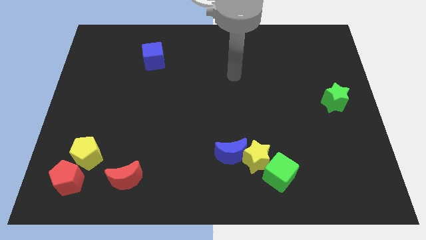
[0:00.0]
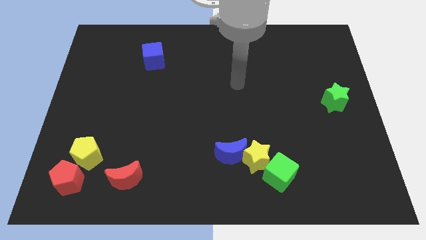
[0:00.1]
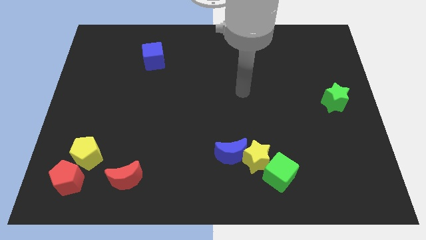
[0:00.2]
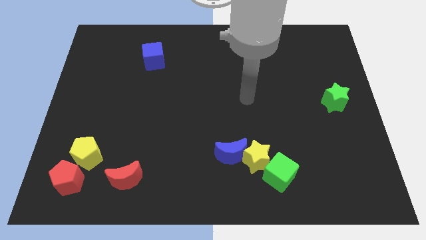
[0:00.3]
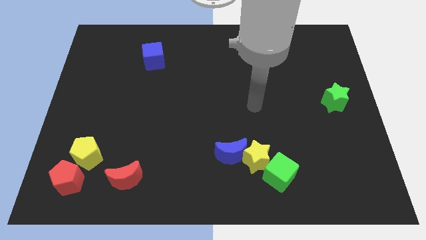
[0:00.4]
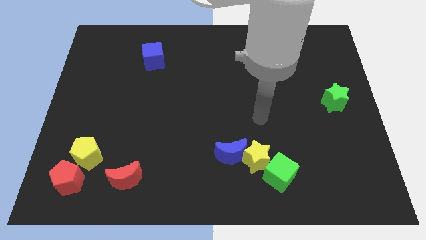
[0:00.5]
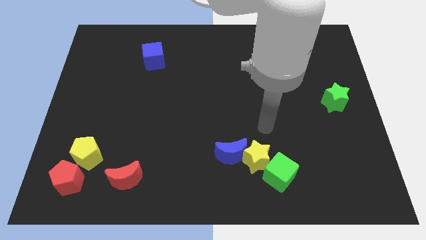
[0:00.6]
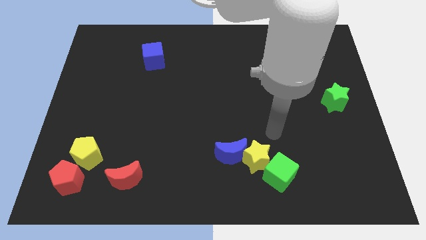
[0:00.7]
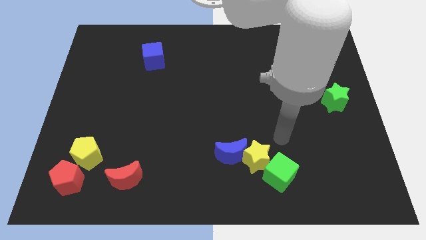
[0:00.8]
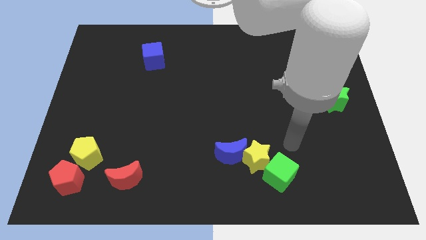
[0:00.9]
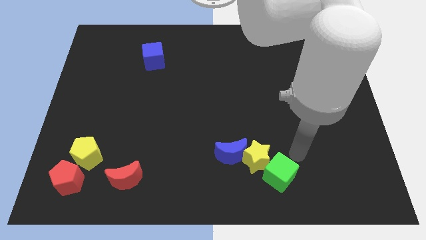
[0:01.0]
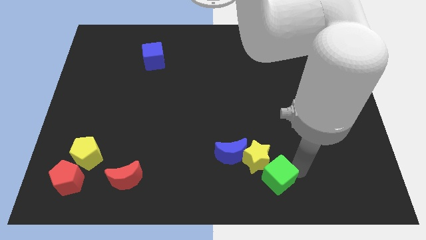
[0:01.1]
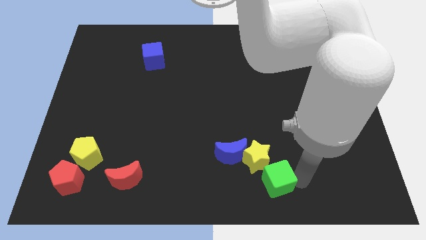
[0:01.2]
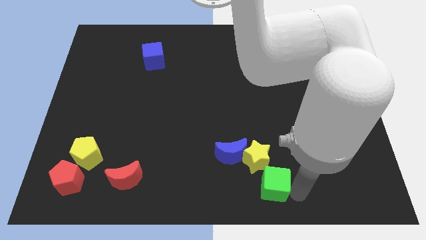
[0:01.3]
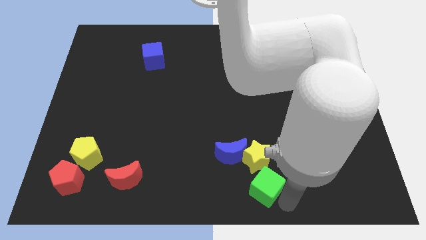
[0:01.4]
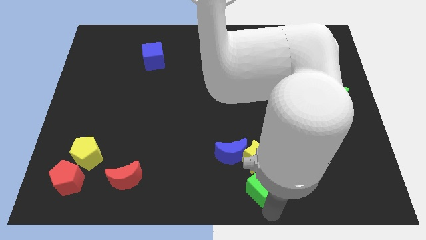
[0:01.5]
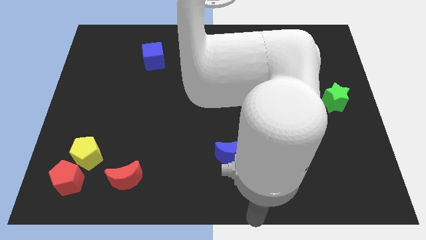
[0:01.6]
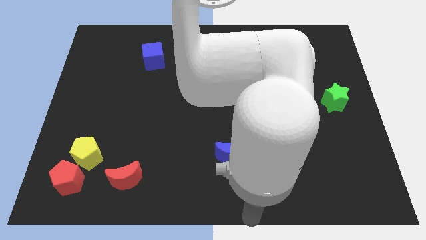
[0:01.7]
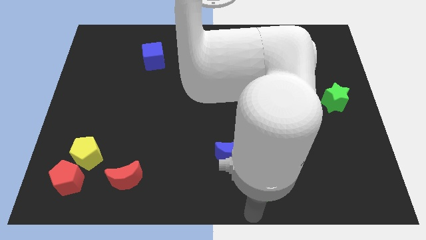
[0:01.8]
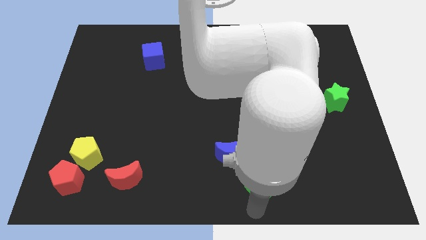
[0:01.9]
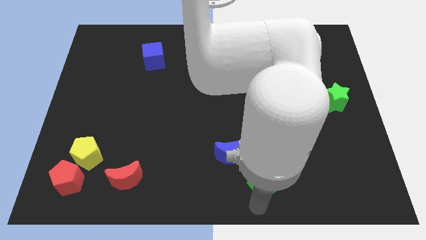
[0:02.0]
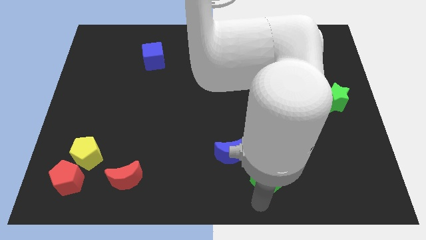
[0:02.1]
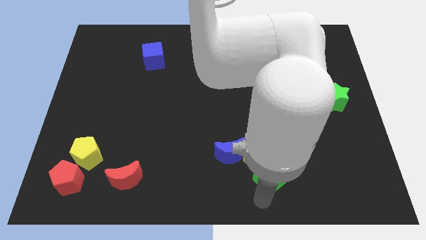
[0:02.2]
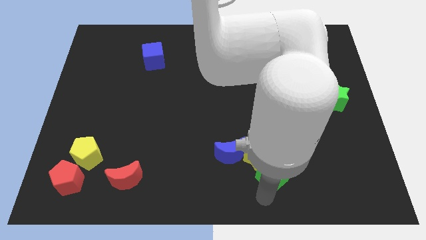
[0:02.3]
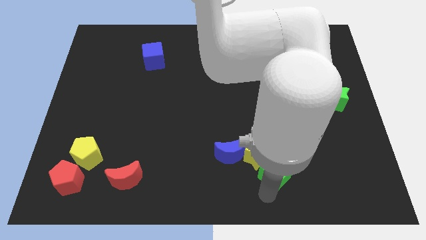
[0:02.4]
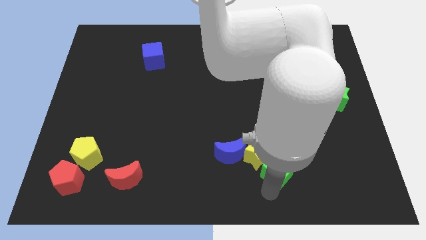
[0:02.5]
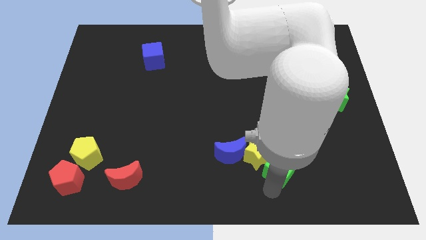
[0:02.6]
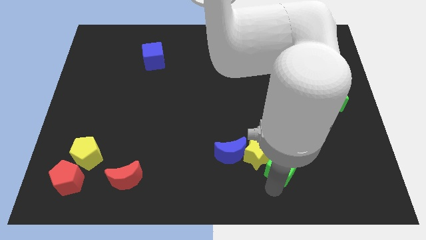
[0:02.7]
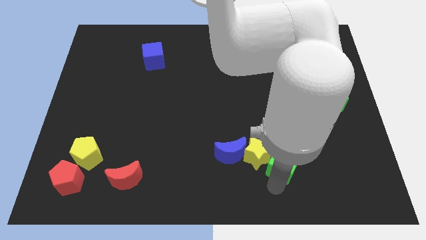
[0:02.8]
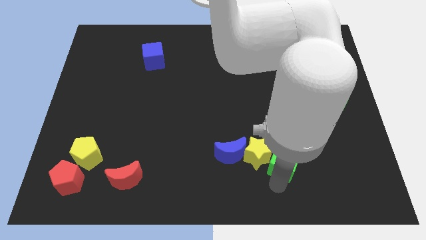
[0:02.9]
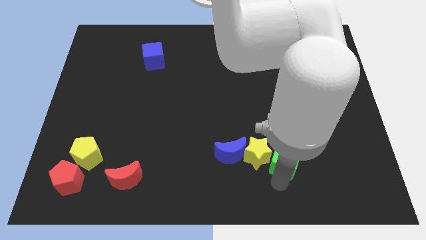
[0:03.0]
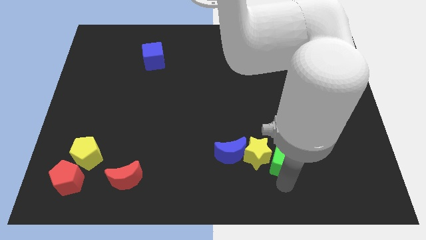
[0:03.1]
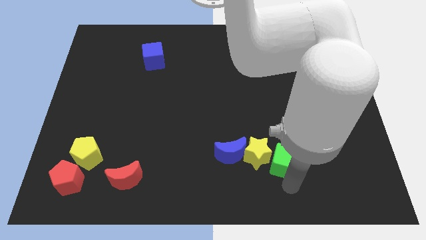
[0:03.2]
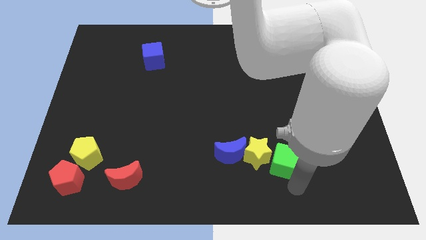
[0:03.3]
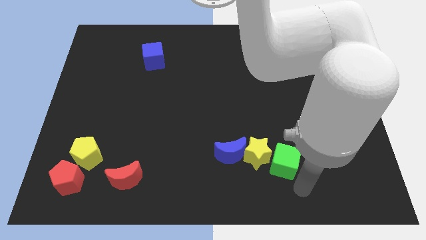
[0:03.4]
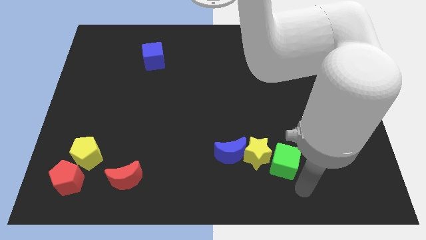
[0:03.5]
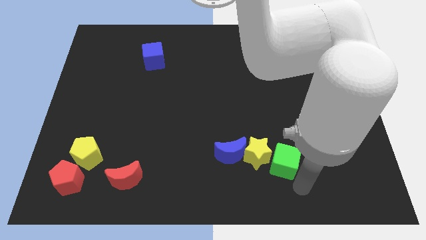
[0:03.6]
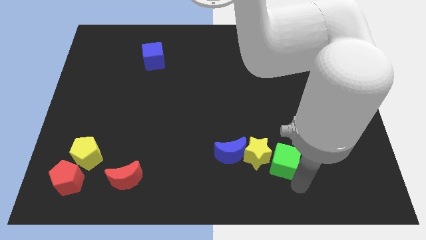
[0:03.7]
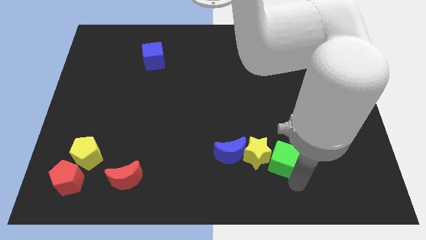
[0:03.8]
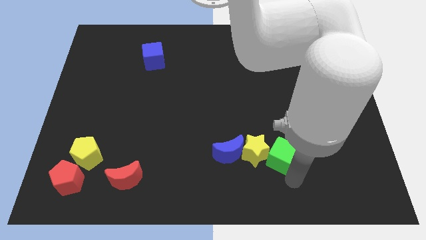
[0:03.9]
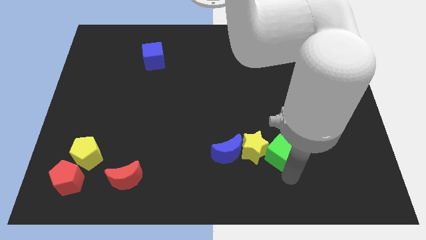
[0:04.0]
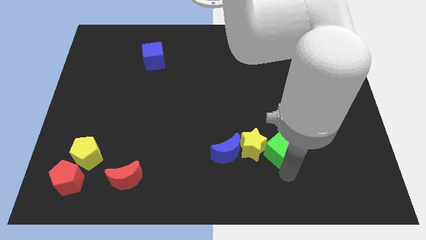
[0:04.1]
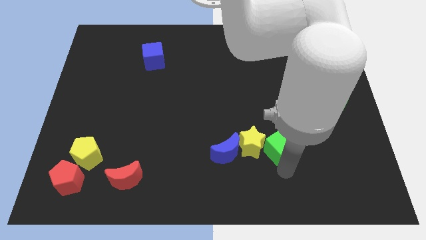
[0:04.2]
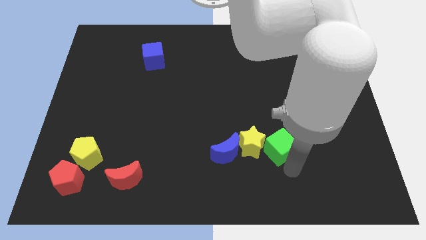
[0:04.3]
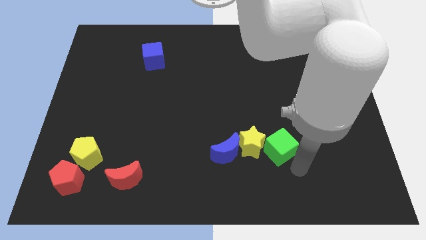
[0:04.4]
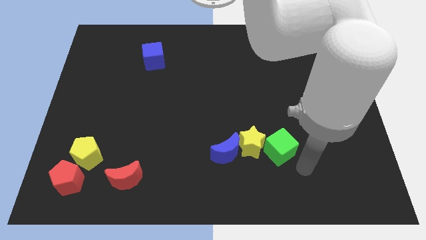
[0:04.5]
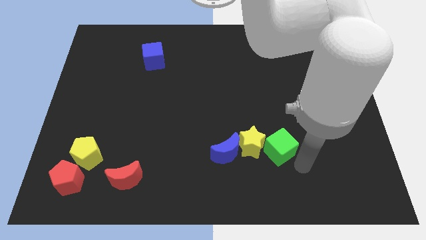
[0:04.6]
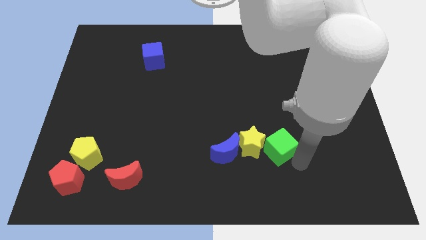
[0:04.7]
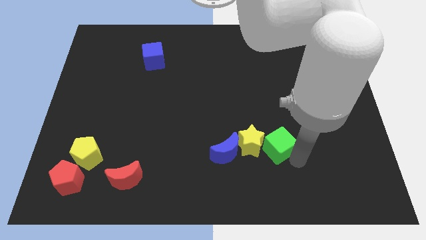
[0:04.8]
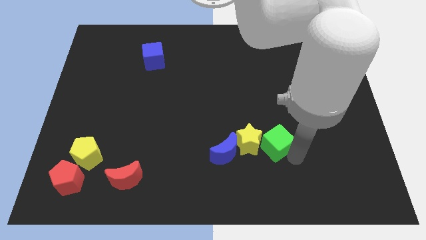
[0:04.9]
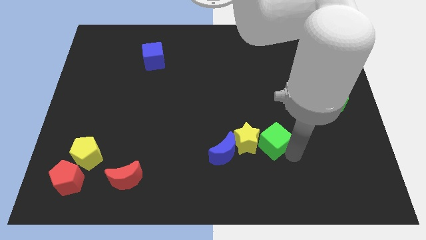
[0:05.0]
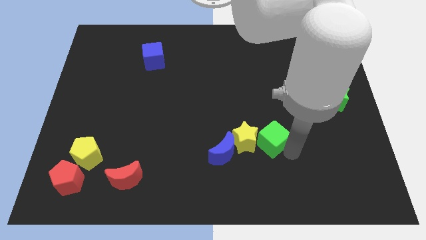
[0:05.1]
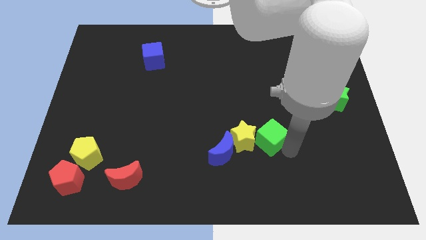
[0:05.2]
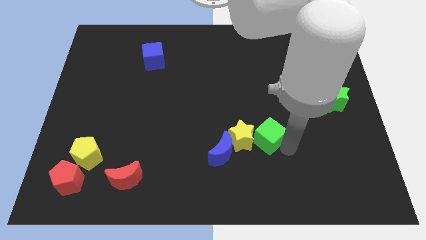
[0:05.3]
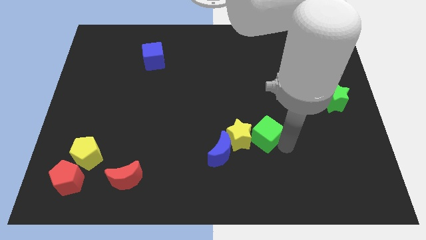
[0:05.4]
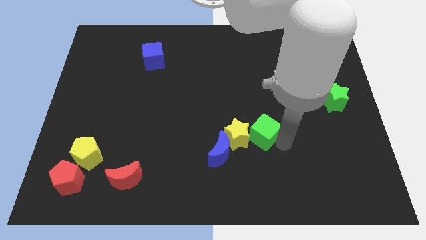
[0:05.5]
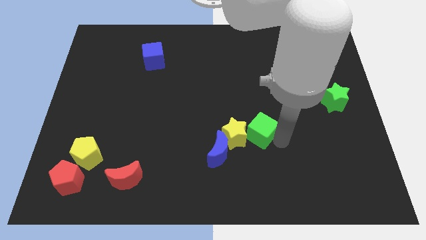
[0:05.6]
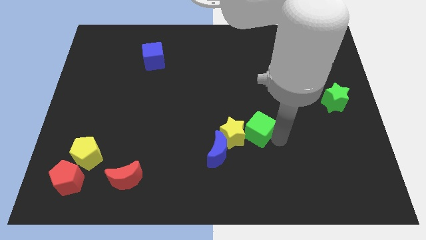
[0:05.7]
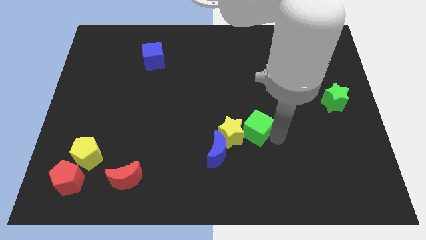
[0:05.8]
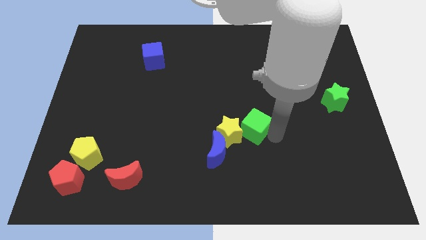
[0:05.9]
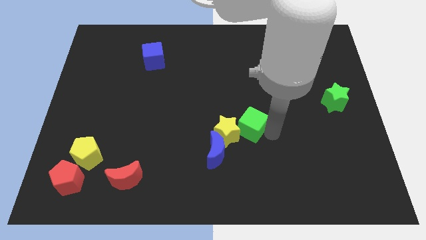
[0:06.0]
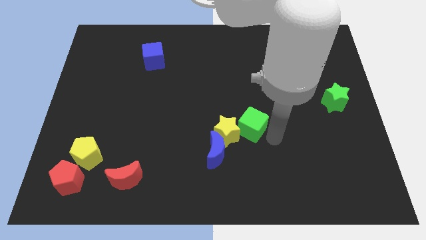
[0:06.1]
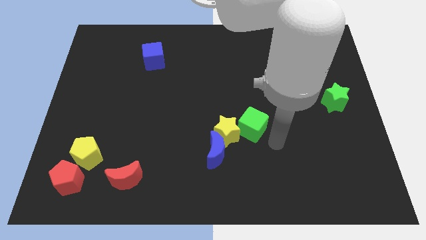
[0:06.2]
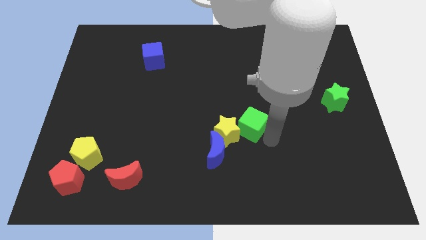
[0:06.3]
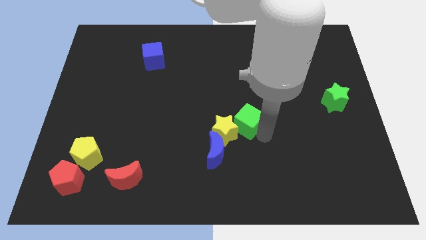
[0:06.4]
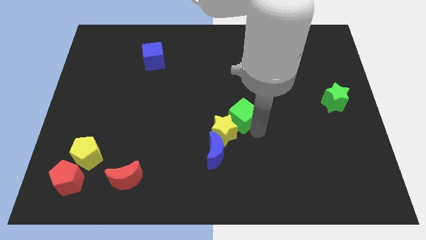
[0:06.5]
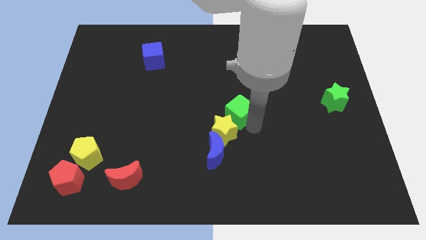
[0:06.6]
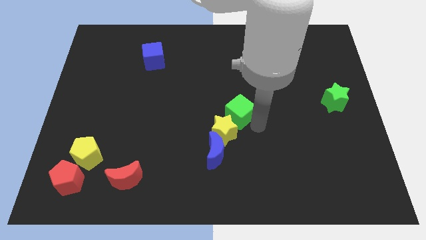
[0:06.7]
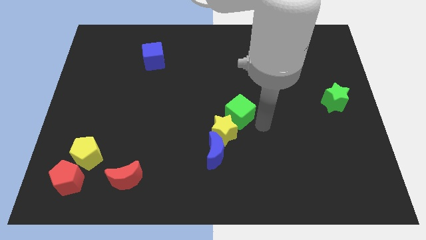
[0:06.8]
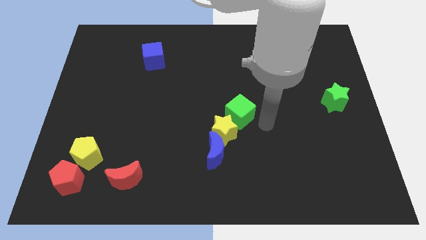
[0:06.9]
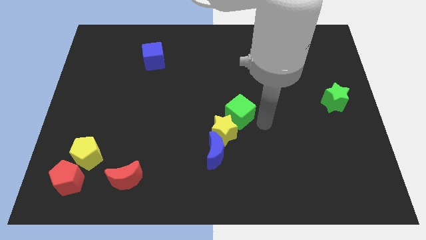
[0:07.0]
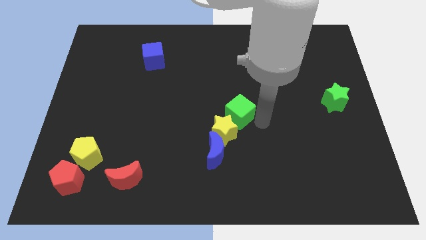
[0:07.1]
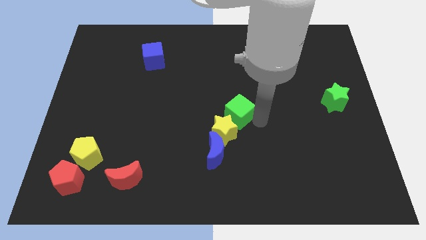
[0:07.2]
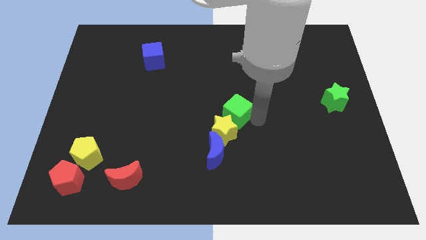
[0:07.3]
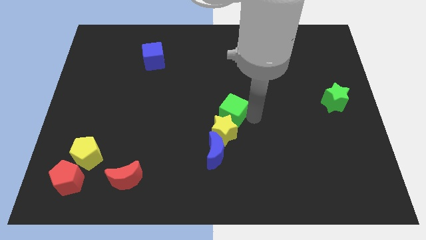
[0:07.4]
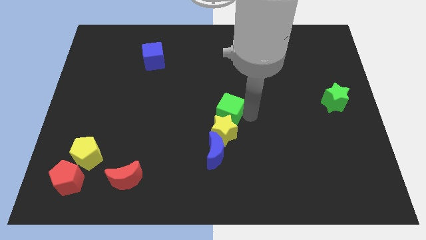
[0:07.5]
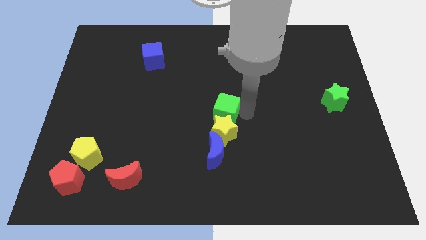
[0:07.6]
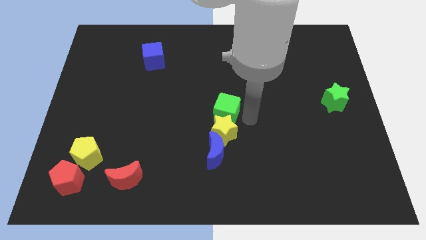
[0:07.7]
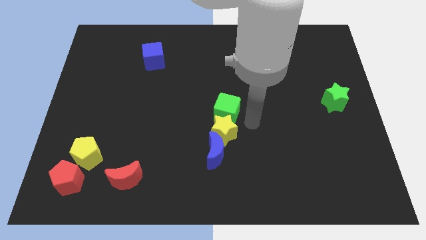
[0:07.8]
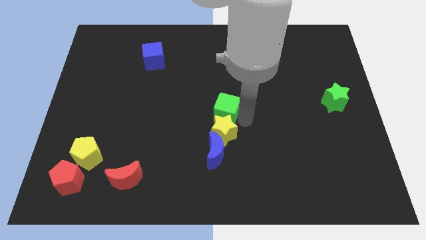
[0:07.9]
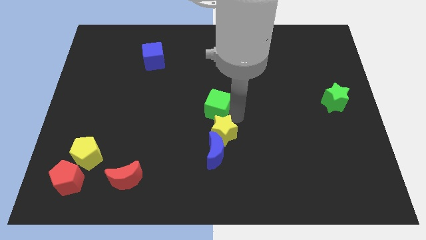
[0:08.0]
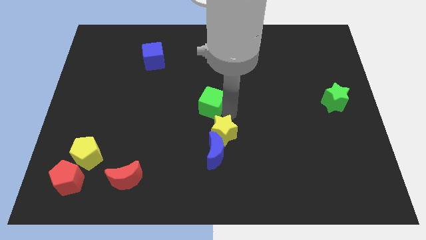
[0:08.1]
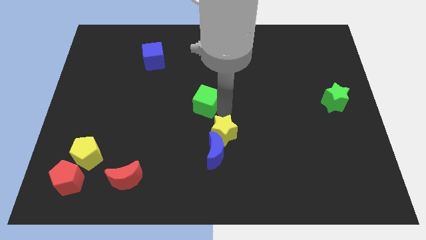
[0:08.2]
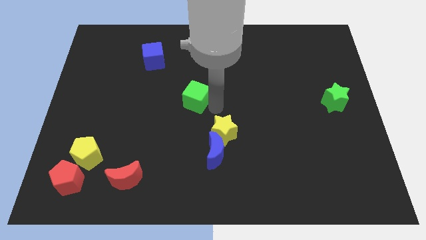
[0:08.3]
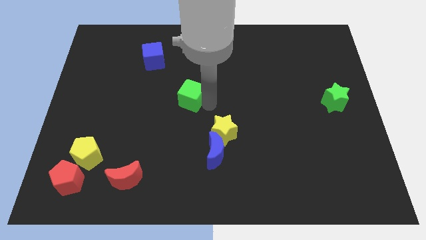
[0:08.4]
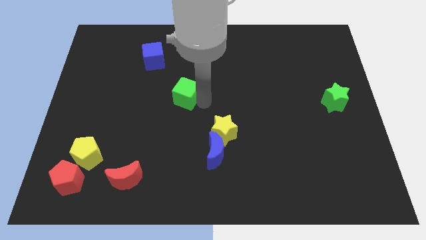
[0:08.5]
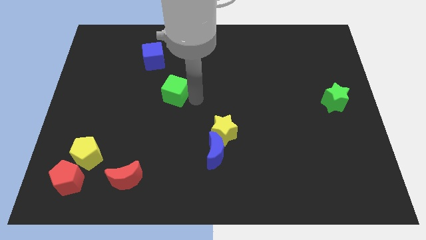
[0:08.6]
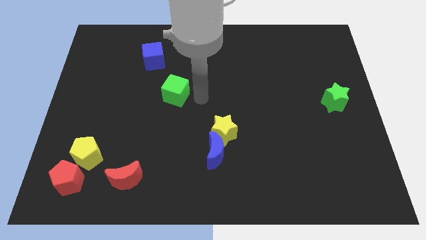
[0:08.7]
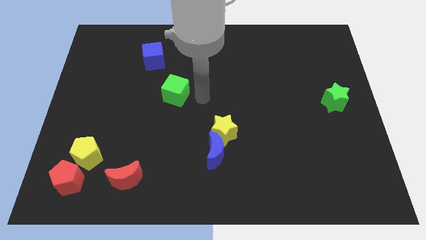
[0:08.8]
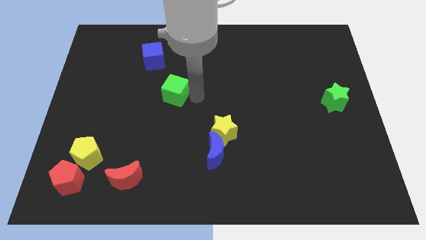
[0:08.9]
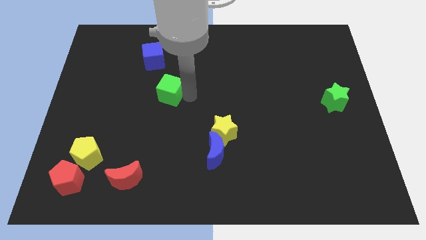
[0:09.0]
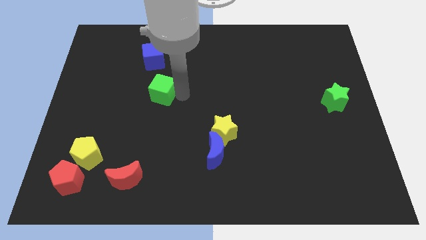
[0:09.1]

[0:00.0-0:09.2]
put the green cube to the bottom side of the blue cube
